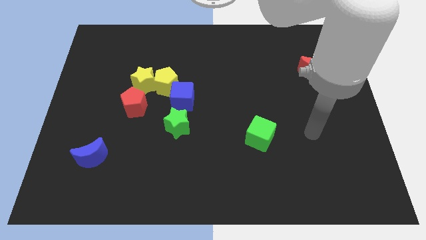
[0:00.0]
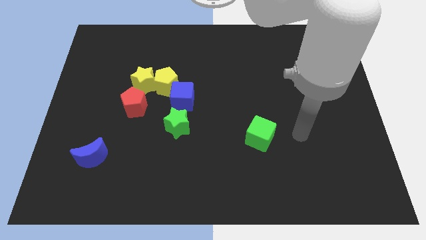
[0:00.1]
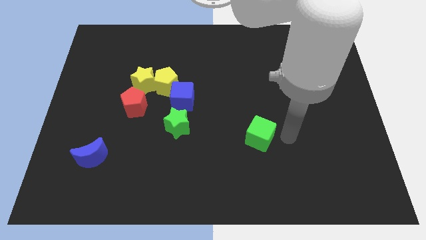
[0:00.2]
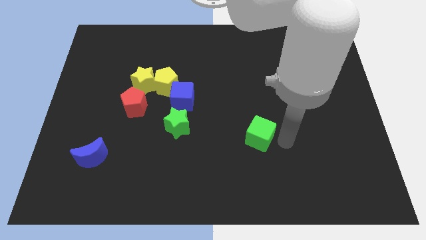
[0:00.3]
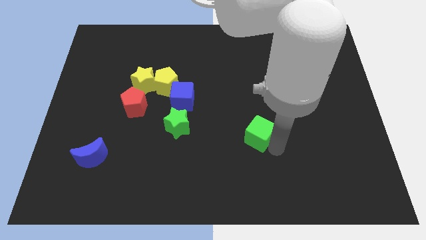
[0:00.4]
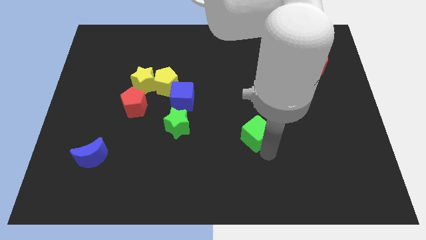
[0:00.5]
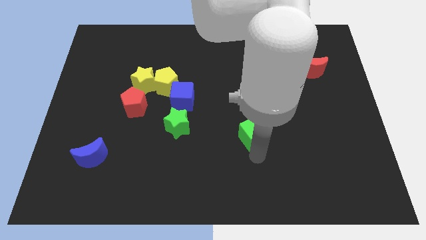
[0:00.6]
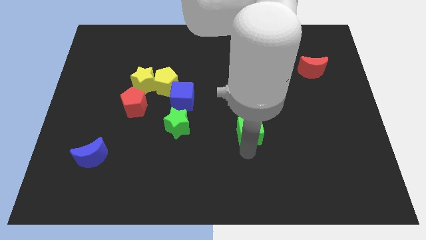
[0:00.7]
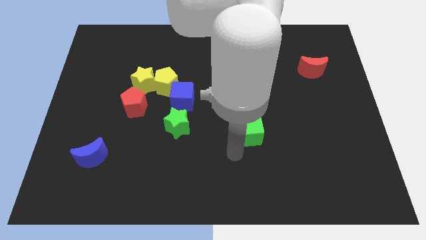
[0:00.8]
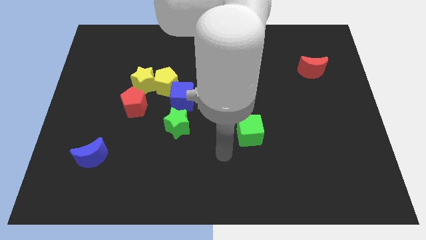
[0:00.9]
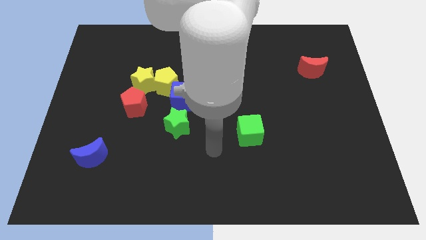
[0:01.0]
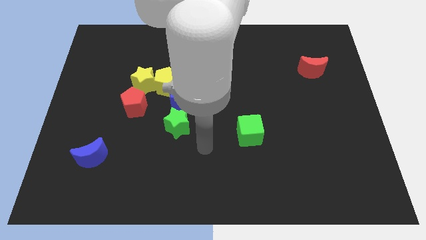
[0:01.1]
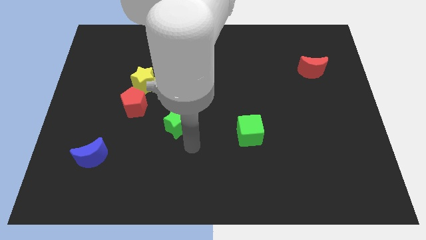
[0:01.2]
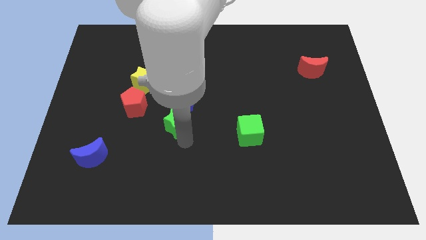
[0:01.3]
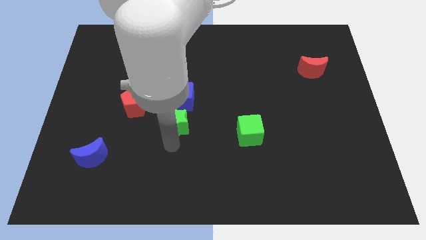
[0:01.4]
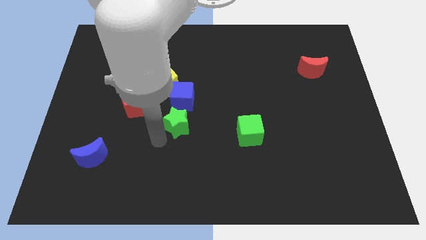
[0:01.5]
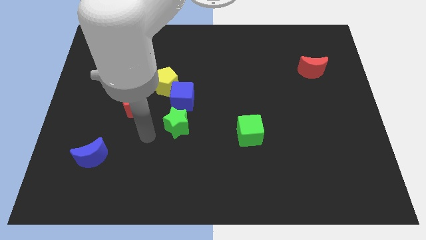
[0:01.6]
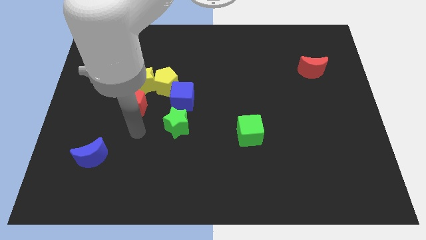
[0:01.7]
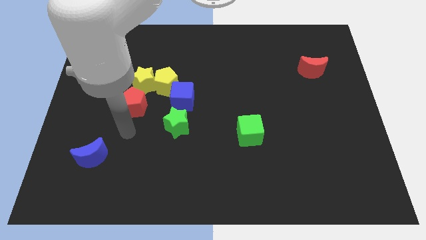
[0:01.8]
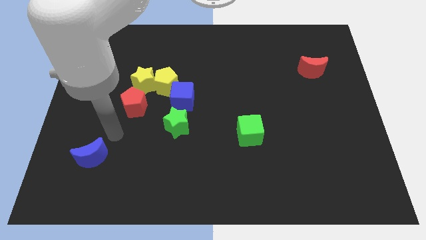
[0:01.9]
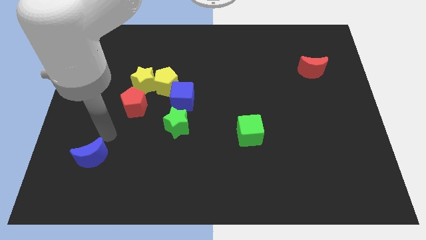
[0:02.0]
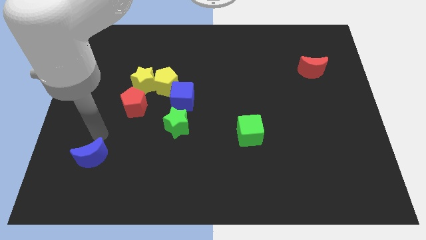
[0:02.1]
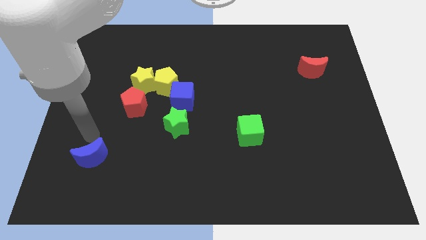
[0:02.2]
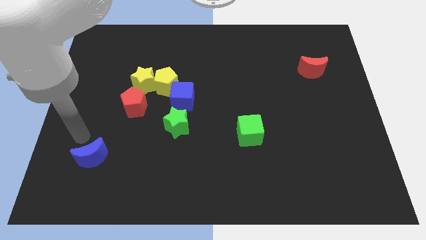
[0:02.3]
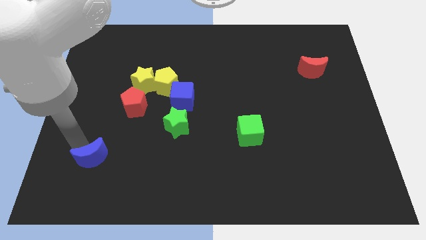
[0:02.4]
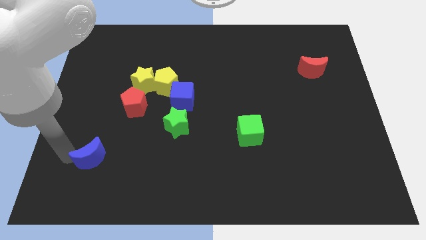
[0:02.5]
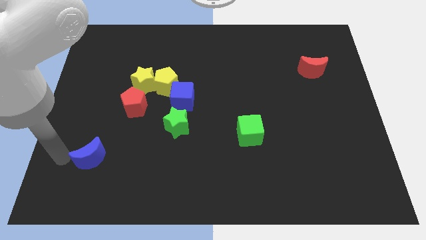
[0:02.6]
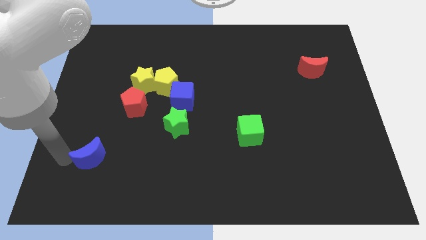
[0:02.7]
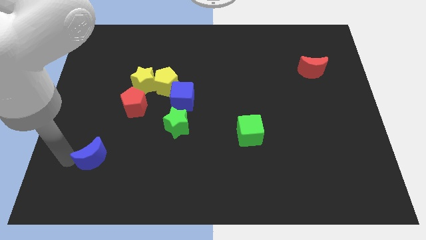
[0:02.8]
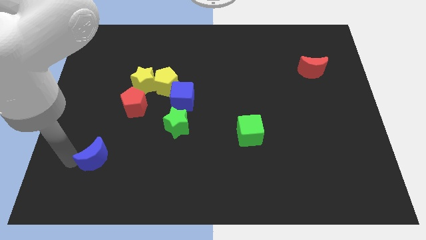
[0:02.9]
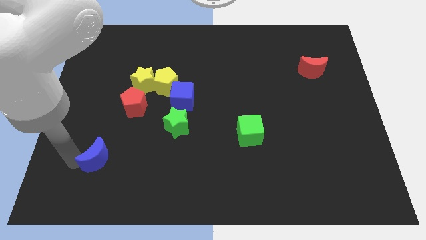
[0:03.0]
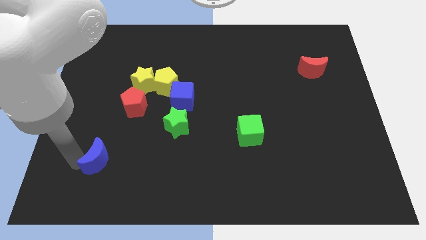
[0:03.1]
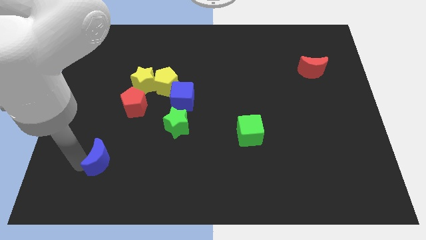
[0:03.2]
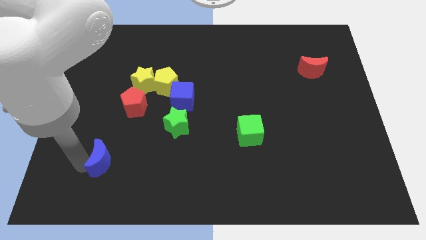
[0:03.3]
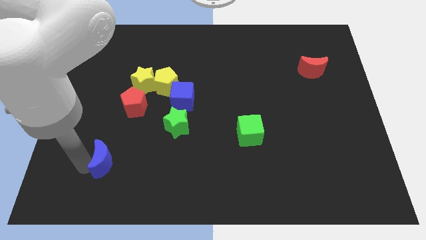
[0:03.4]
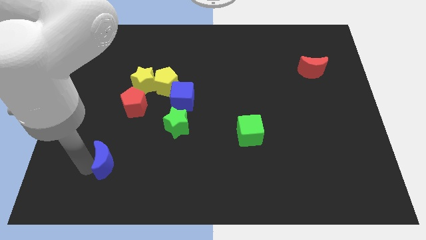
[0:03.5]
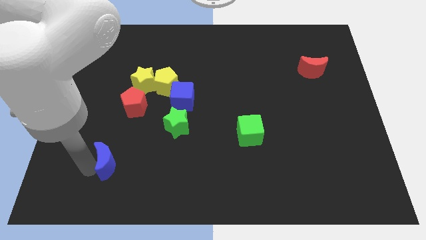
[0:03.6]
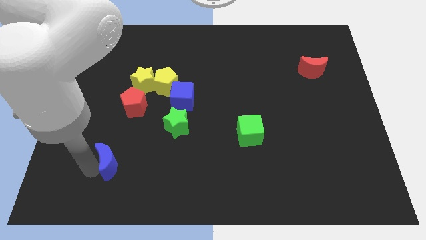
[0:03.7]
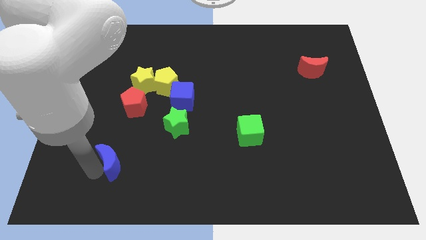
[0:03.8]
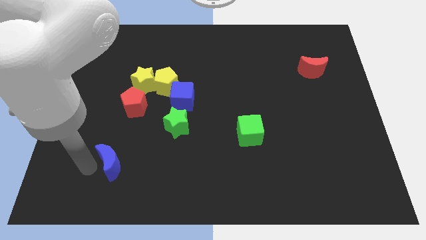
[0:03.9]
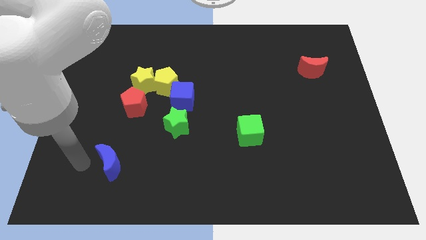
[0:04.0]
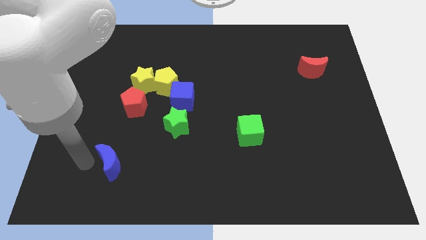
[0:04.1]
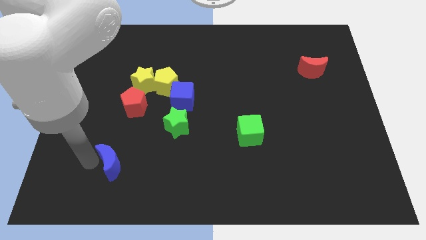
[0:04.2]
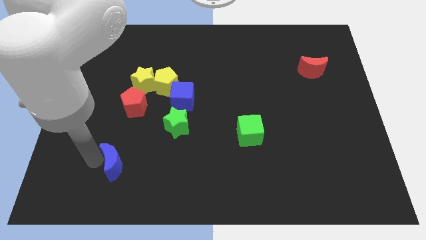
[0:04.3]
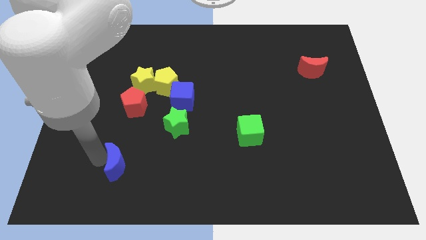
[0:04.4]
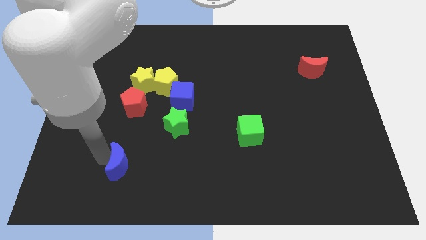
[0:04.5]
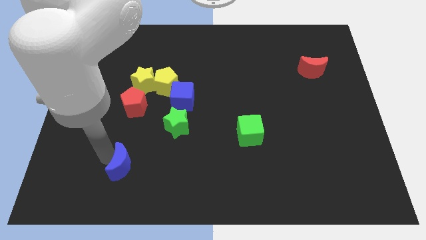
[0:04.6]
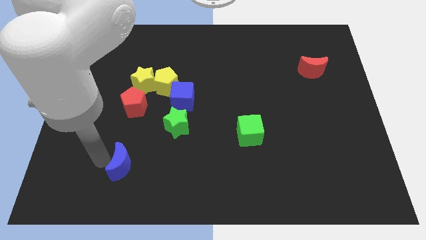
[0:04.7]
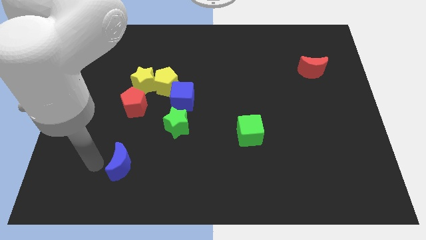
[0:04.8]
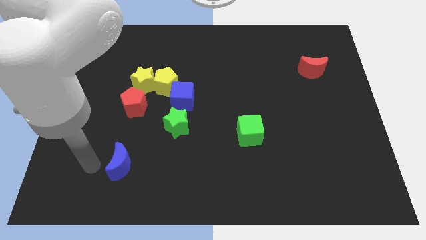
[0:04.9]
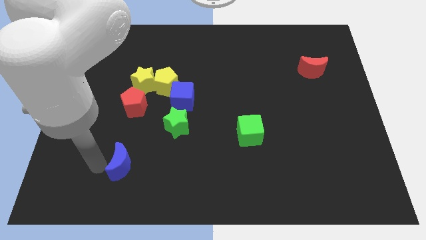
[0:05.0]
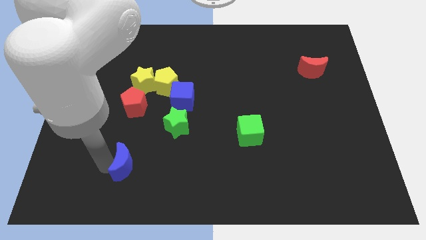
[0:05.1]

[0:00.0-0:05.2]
slightly move the blue moon right

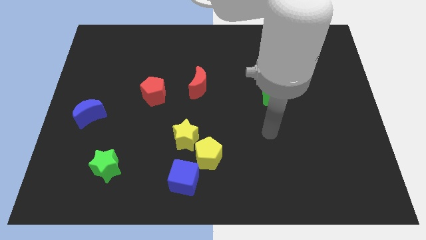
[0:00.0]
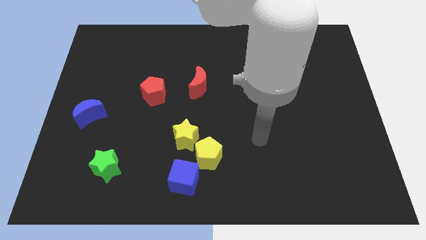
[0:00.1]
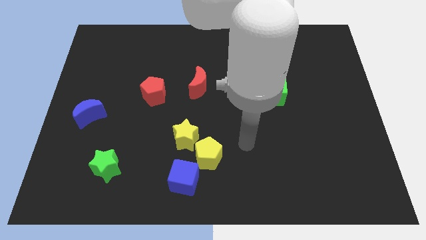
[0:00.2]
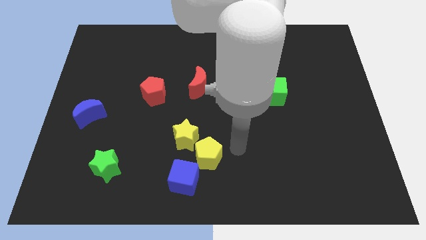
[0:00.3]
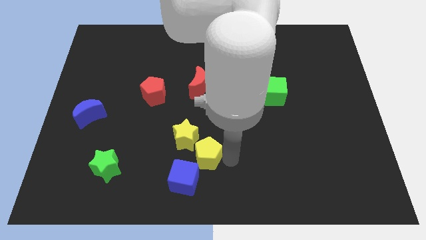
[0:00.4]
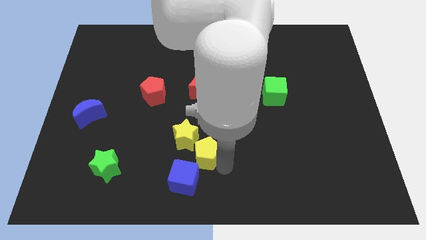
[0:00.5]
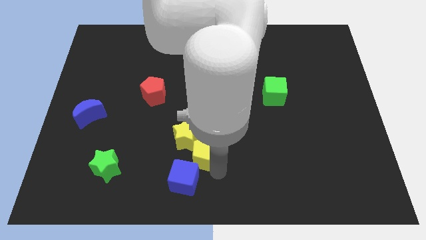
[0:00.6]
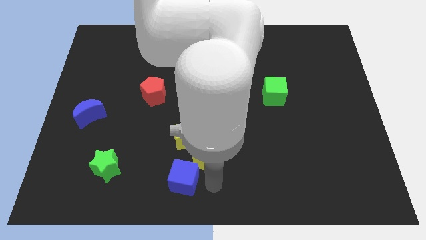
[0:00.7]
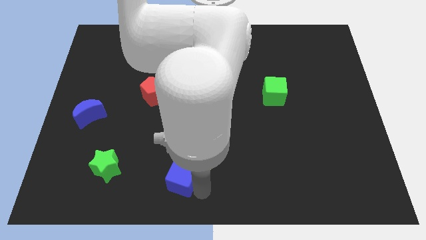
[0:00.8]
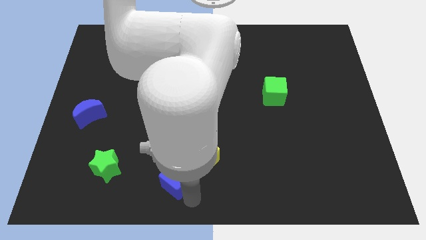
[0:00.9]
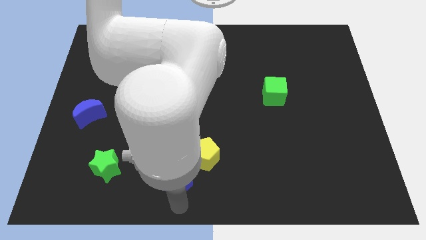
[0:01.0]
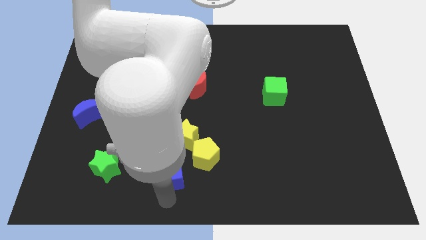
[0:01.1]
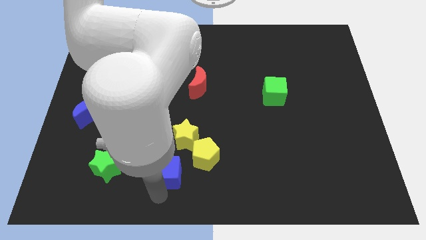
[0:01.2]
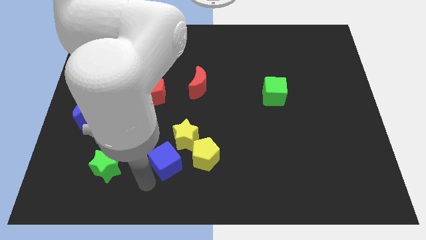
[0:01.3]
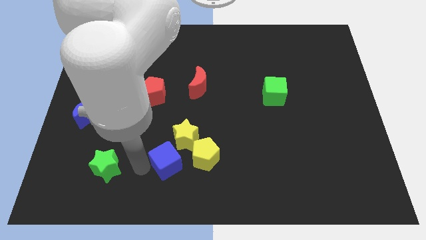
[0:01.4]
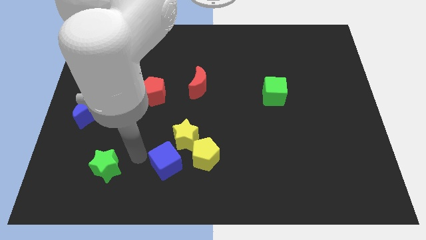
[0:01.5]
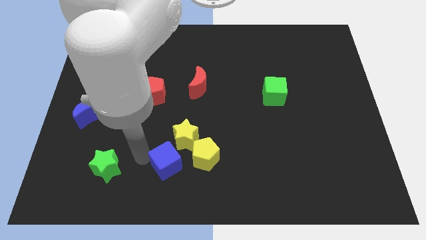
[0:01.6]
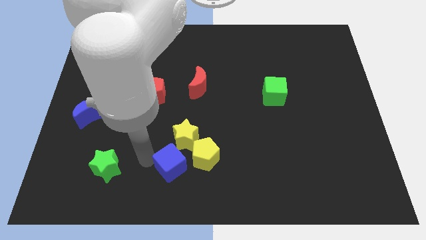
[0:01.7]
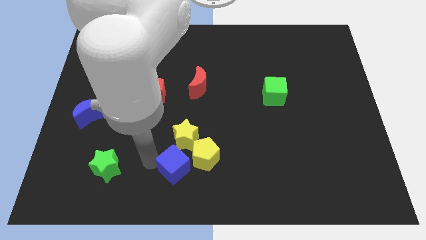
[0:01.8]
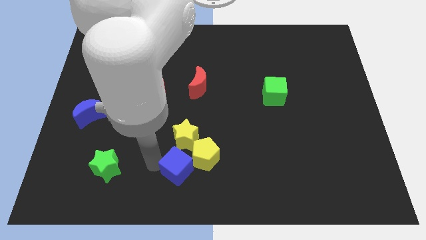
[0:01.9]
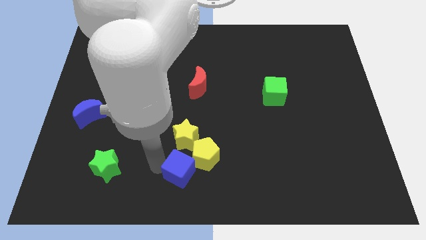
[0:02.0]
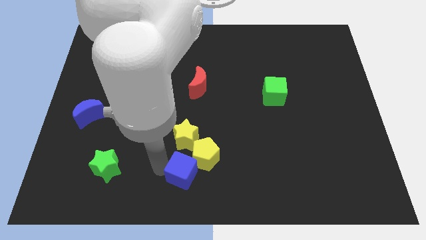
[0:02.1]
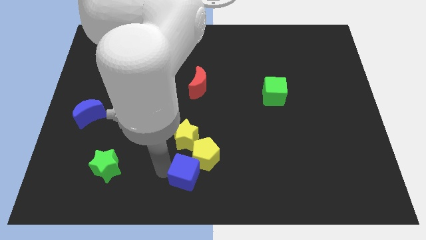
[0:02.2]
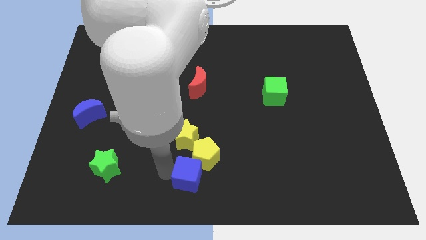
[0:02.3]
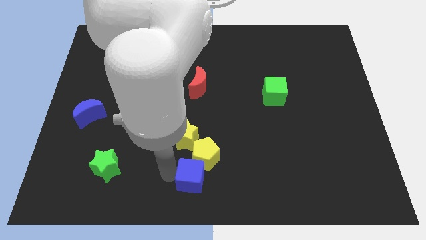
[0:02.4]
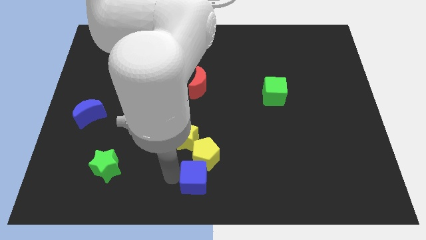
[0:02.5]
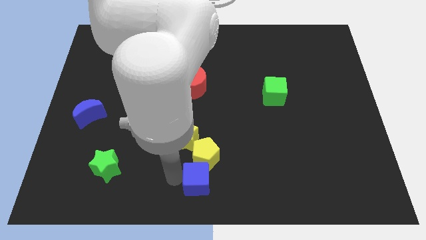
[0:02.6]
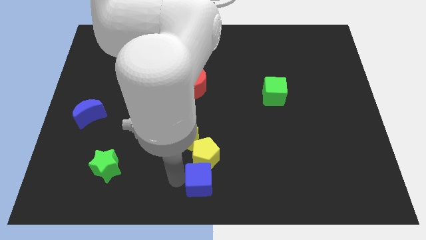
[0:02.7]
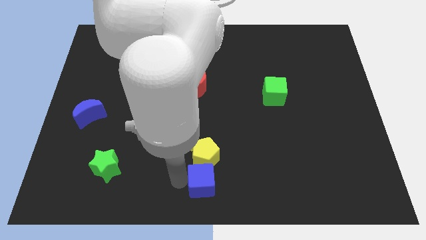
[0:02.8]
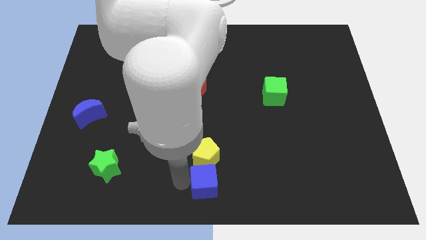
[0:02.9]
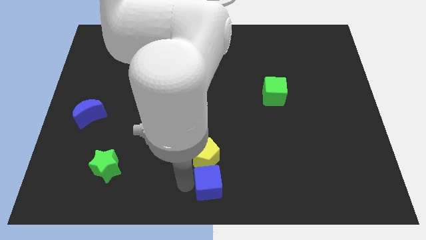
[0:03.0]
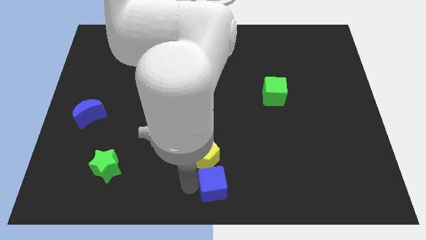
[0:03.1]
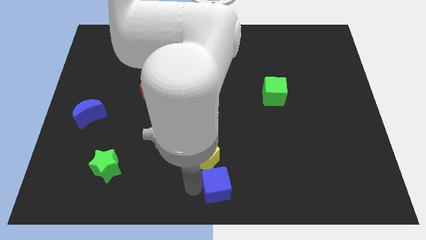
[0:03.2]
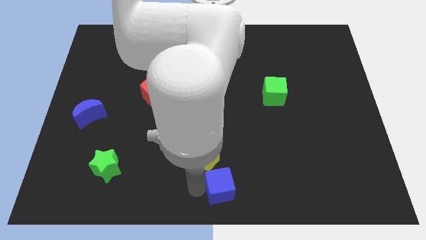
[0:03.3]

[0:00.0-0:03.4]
slightly push the blue cube right
